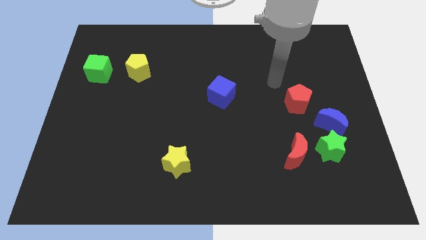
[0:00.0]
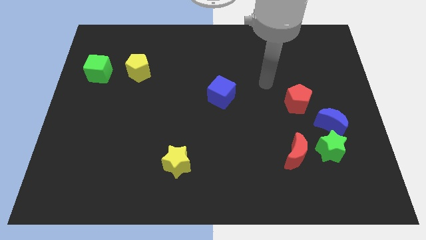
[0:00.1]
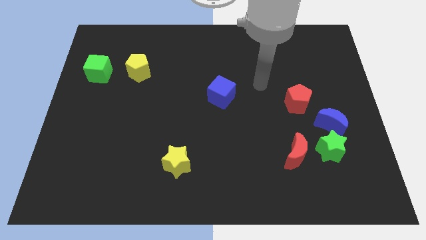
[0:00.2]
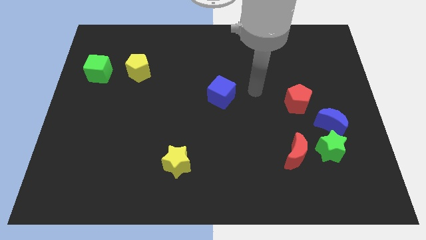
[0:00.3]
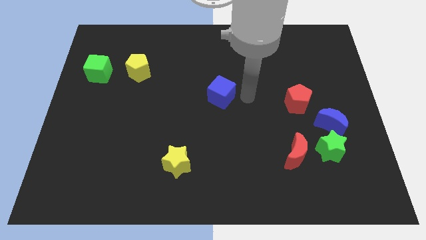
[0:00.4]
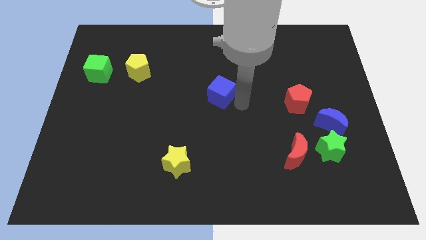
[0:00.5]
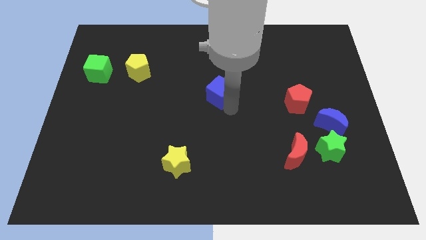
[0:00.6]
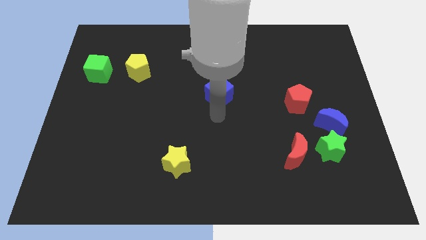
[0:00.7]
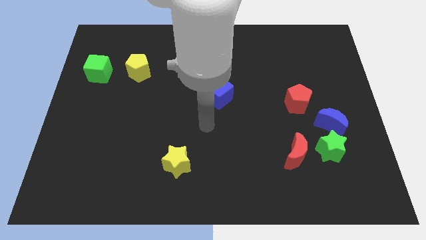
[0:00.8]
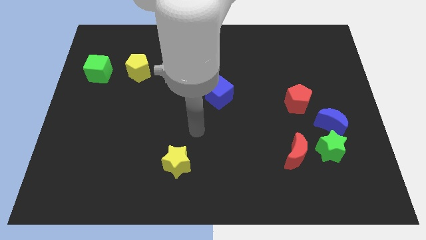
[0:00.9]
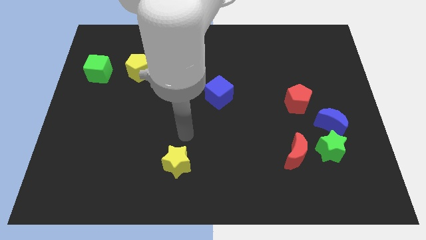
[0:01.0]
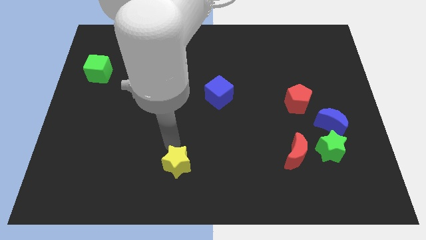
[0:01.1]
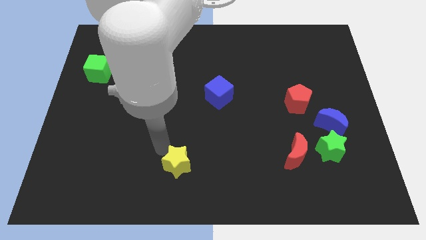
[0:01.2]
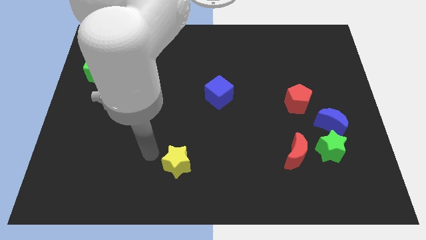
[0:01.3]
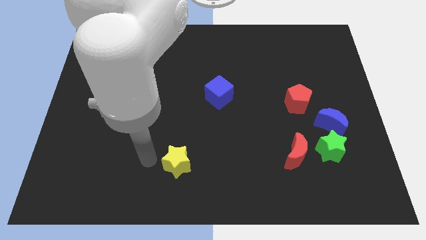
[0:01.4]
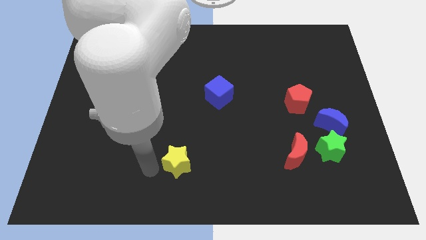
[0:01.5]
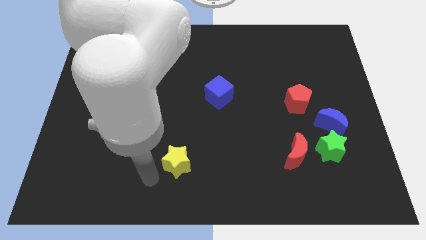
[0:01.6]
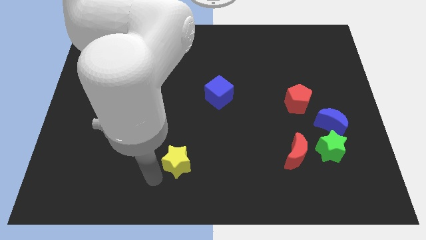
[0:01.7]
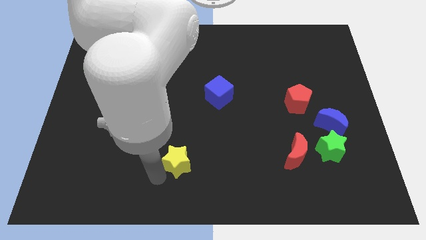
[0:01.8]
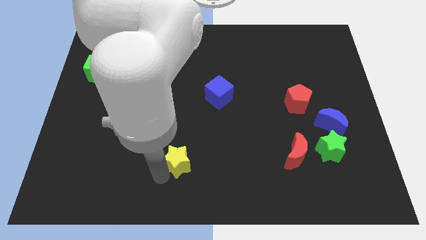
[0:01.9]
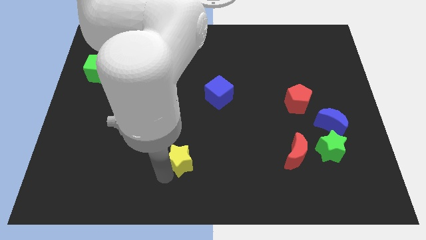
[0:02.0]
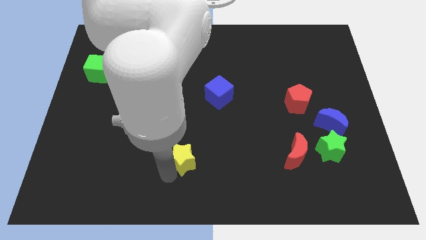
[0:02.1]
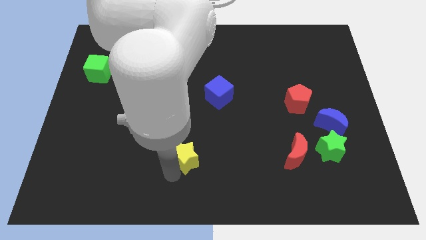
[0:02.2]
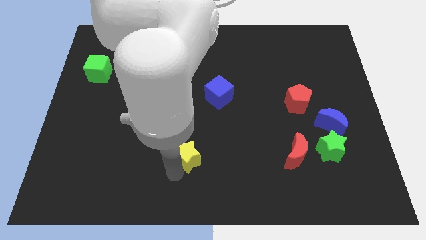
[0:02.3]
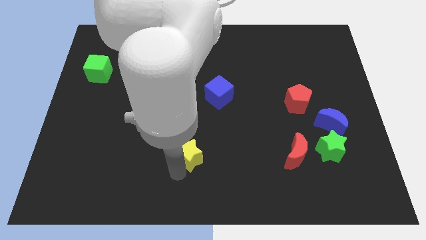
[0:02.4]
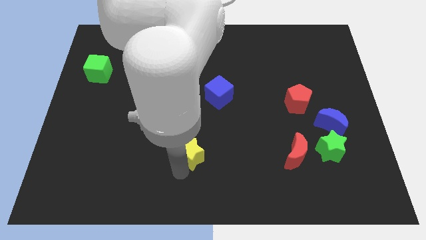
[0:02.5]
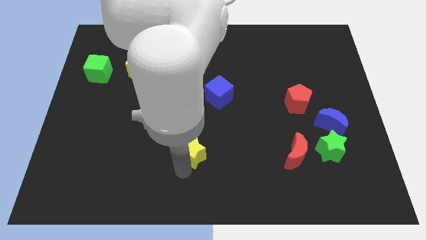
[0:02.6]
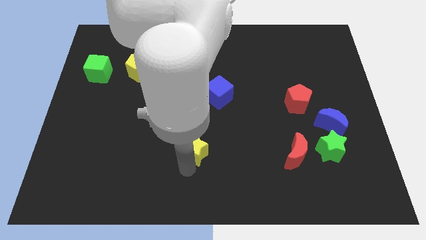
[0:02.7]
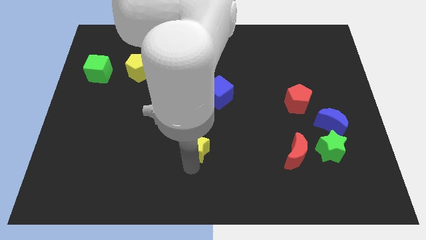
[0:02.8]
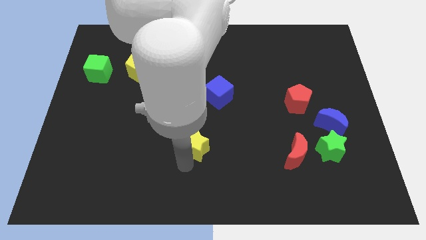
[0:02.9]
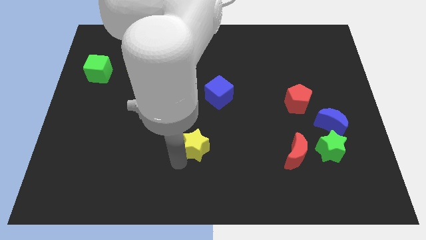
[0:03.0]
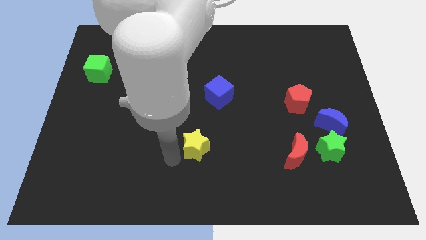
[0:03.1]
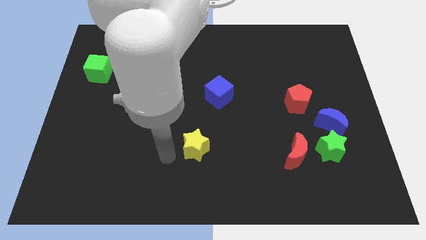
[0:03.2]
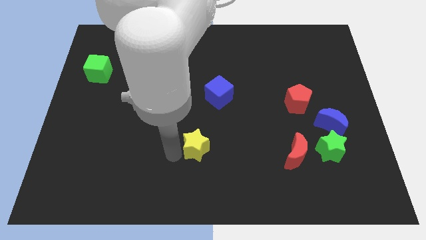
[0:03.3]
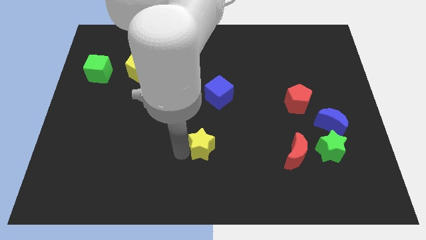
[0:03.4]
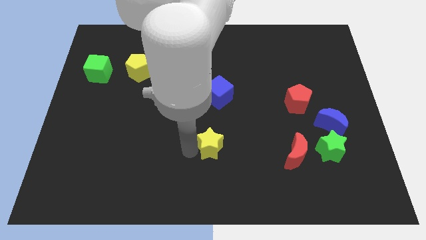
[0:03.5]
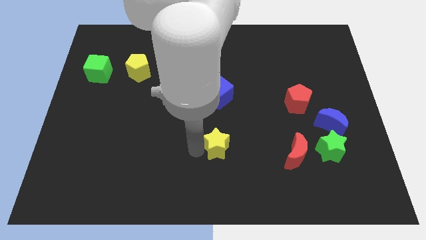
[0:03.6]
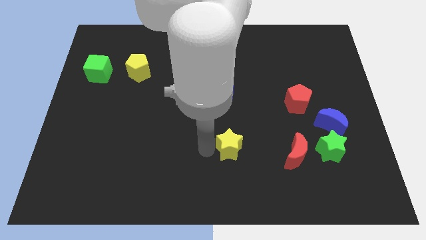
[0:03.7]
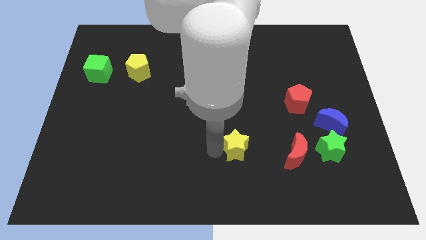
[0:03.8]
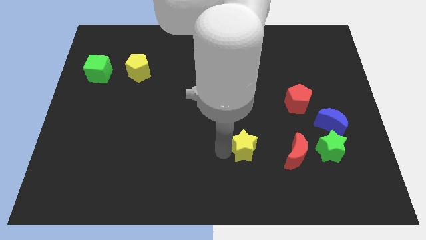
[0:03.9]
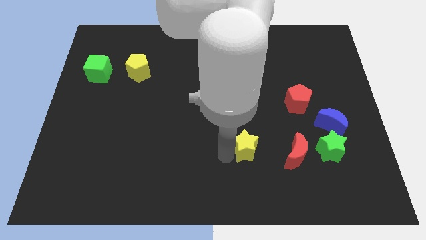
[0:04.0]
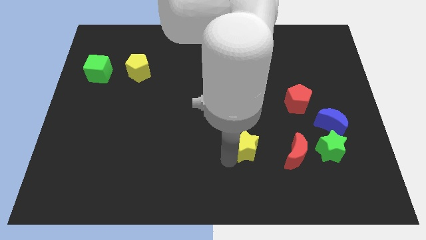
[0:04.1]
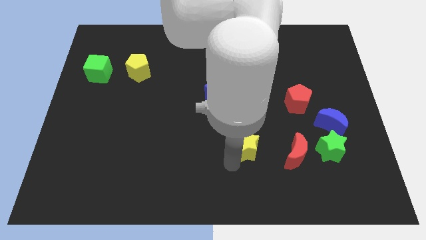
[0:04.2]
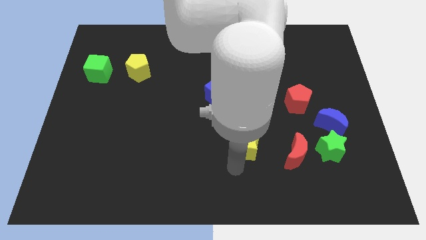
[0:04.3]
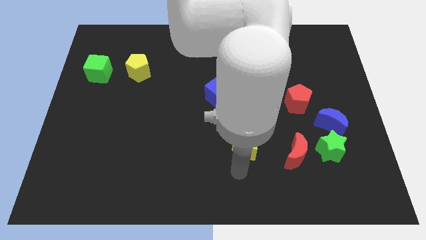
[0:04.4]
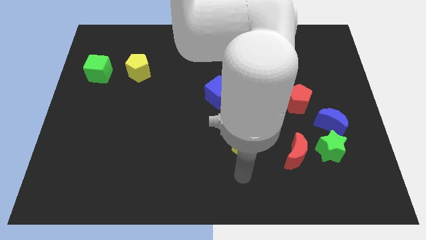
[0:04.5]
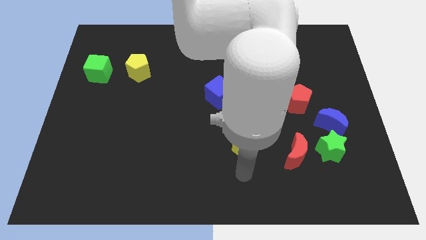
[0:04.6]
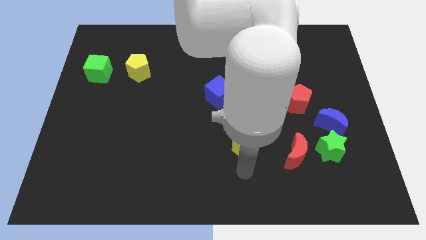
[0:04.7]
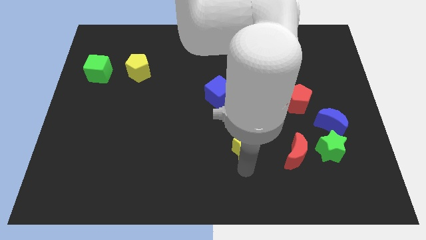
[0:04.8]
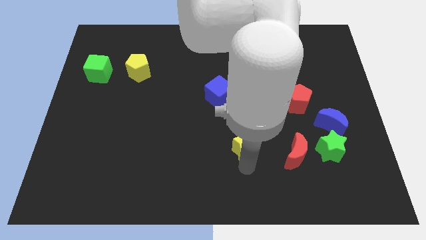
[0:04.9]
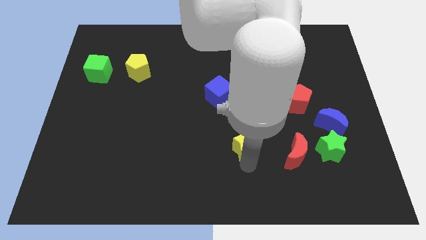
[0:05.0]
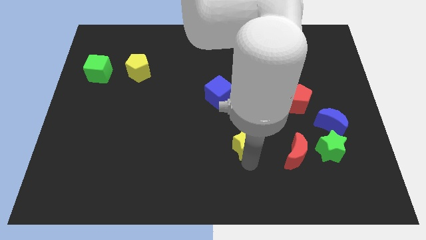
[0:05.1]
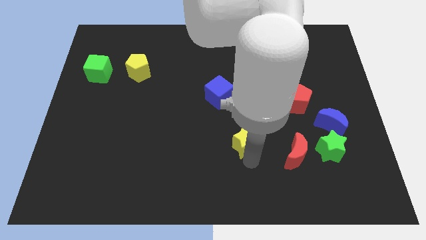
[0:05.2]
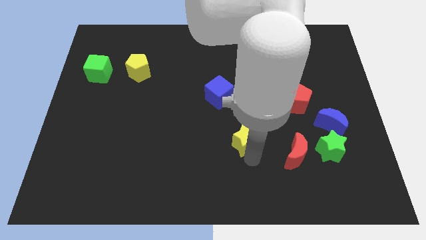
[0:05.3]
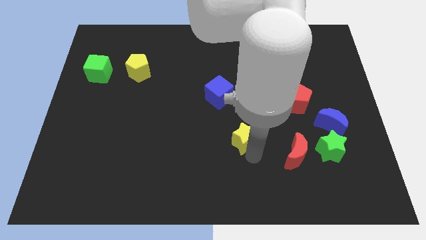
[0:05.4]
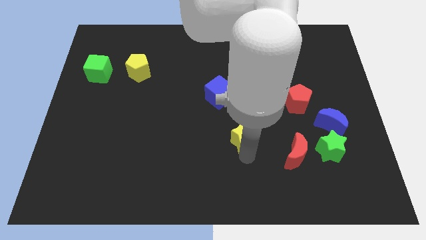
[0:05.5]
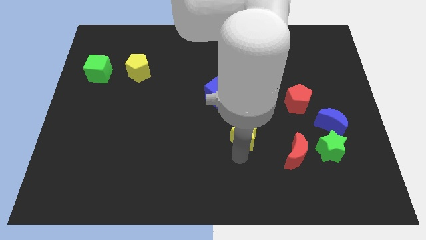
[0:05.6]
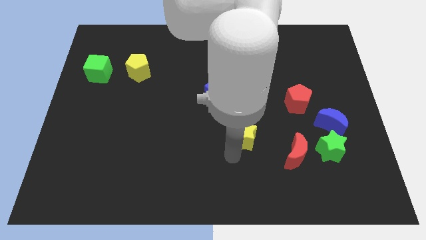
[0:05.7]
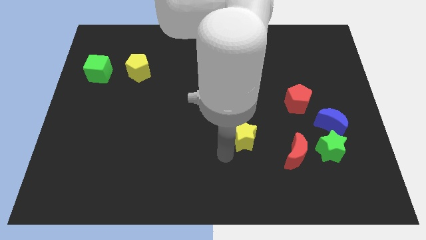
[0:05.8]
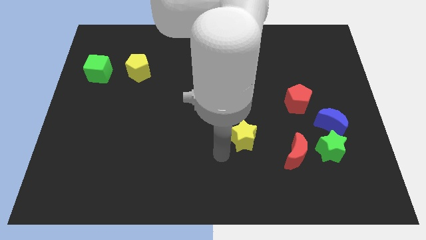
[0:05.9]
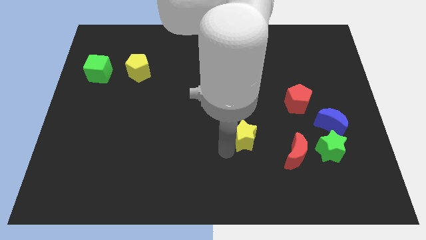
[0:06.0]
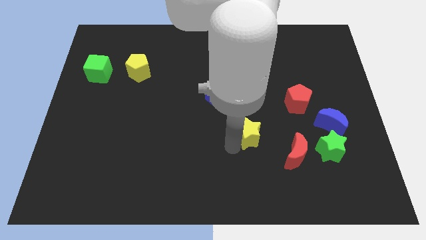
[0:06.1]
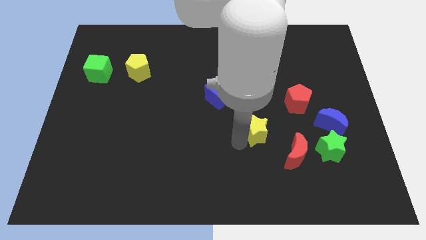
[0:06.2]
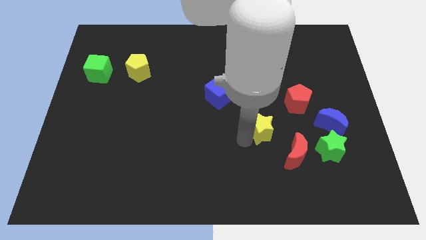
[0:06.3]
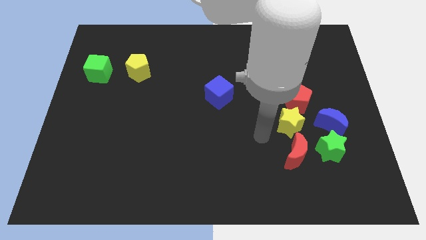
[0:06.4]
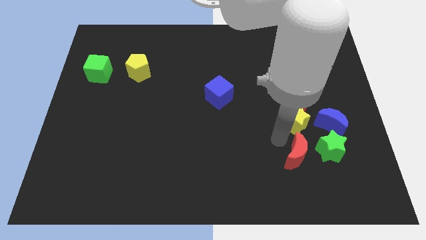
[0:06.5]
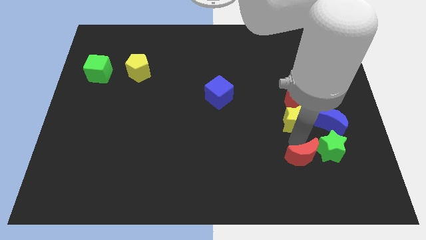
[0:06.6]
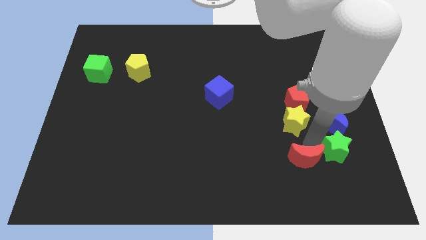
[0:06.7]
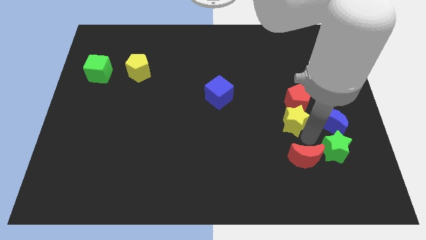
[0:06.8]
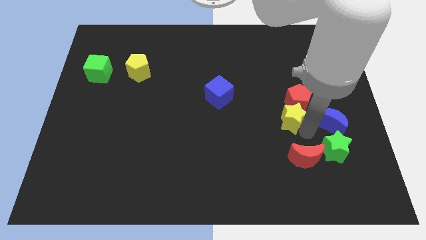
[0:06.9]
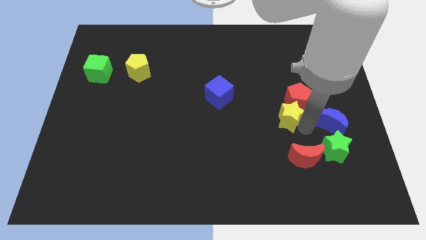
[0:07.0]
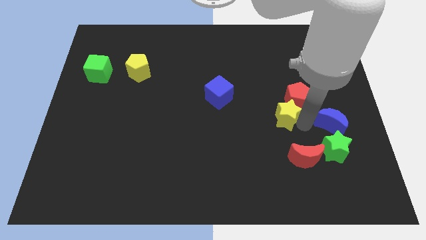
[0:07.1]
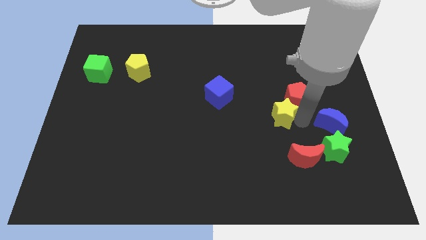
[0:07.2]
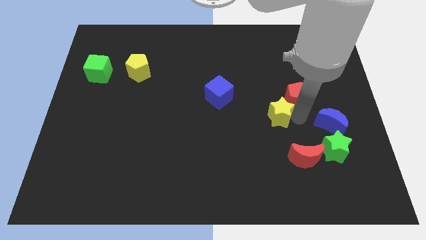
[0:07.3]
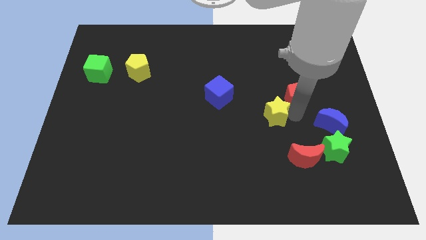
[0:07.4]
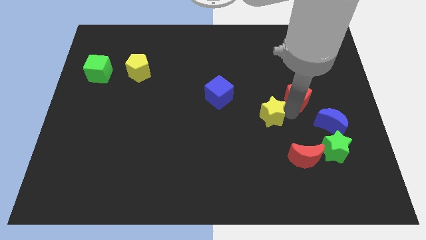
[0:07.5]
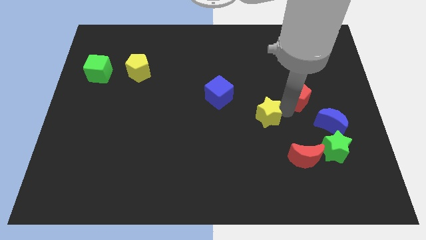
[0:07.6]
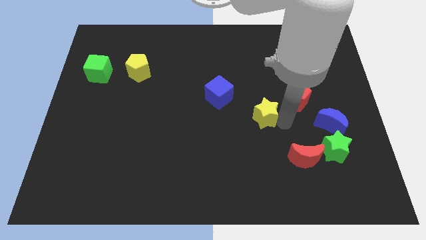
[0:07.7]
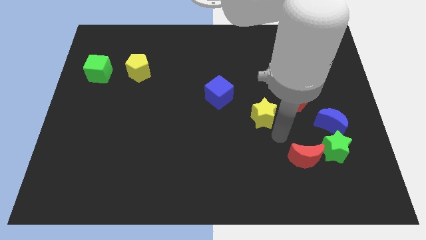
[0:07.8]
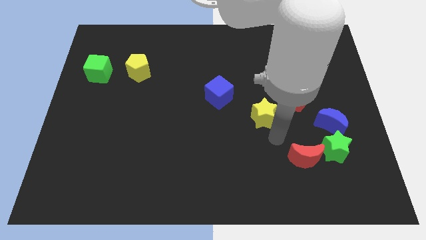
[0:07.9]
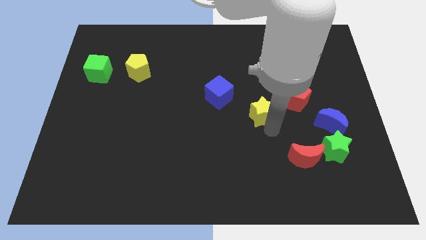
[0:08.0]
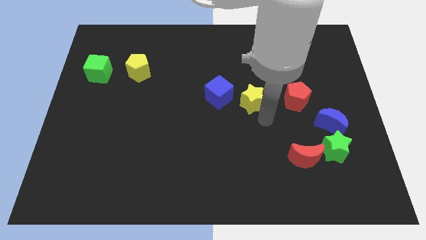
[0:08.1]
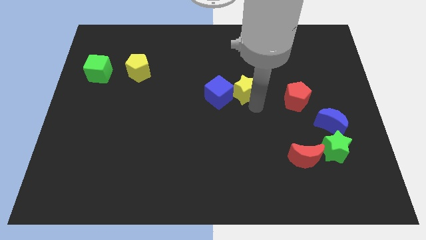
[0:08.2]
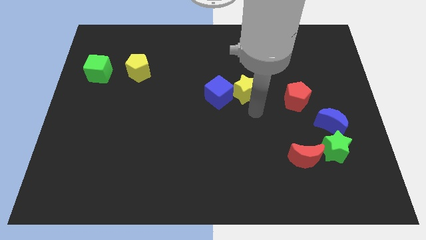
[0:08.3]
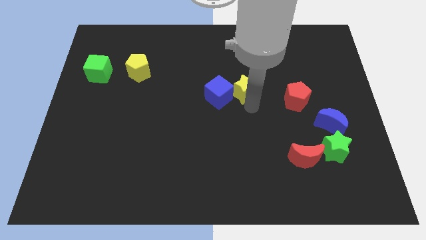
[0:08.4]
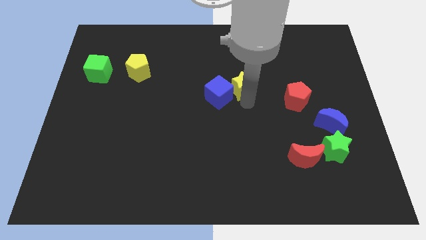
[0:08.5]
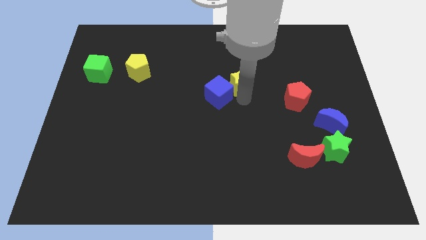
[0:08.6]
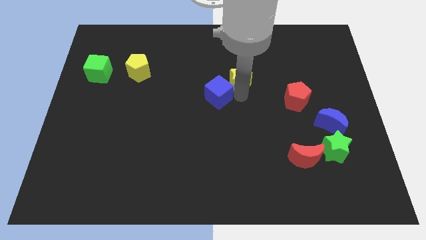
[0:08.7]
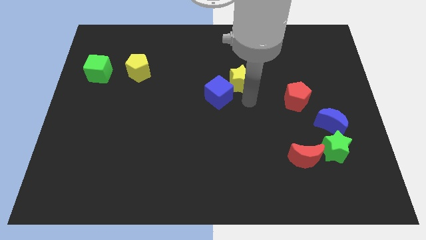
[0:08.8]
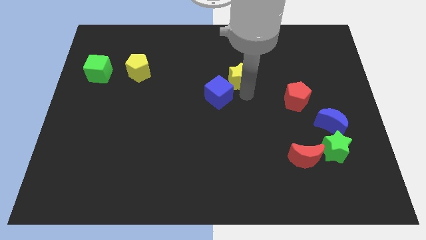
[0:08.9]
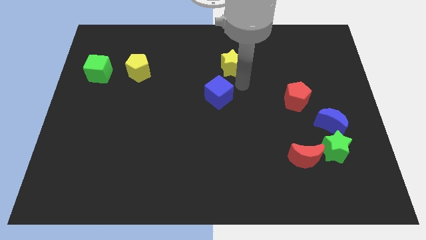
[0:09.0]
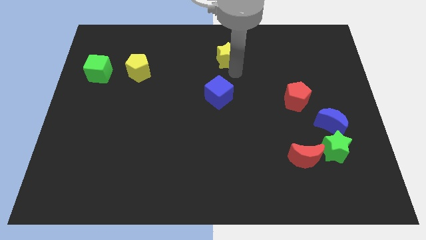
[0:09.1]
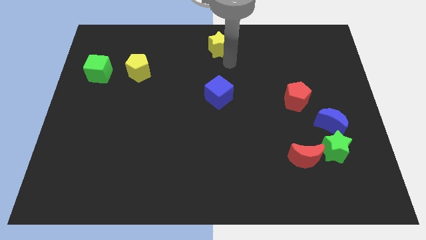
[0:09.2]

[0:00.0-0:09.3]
slide the yellow star to the top side
